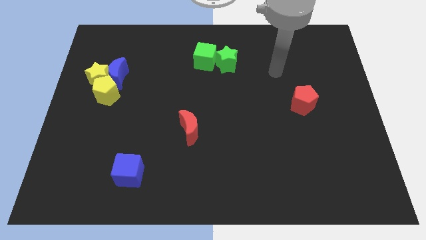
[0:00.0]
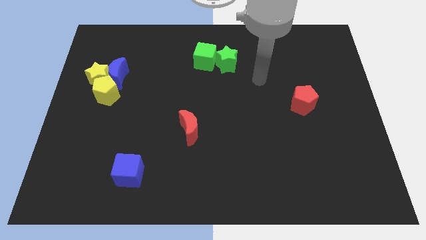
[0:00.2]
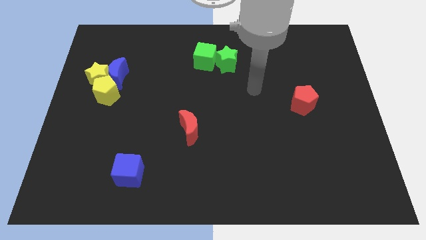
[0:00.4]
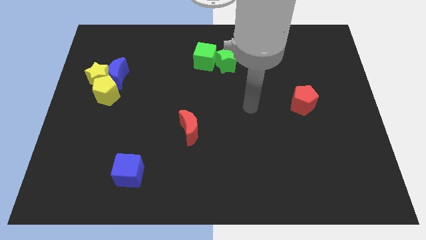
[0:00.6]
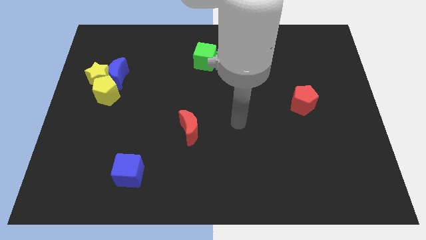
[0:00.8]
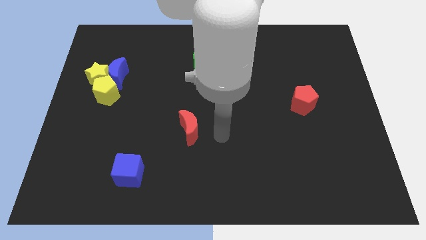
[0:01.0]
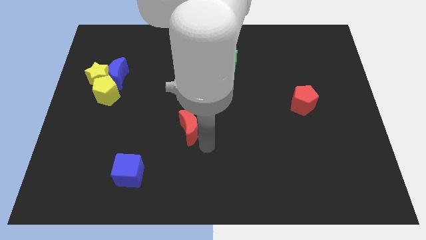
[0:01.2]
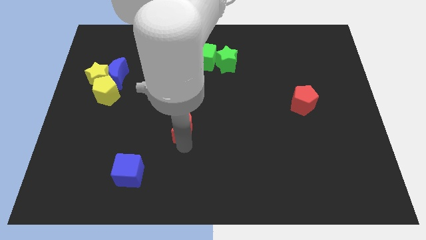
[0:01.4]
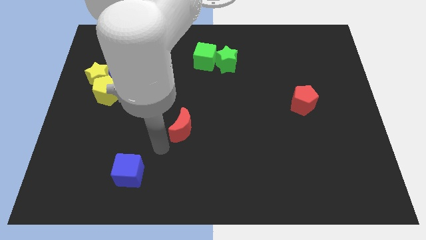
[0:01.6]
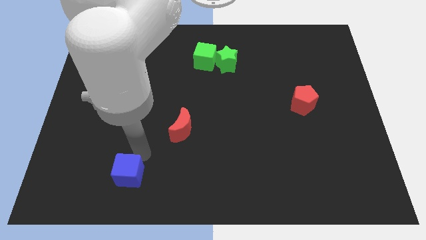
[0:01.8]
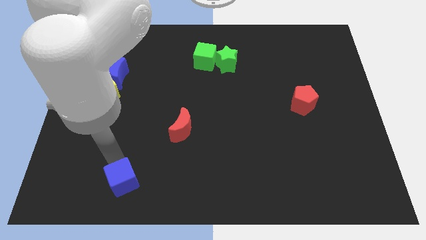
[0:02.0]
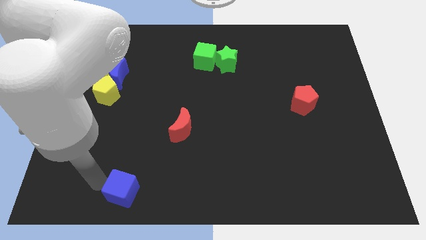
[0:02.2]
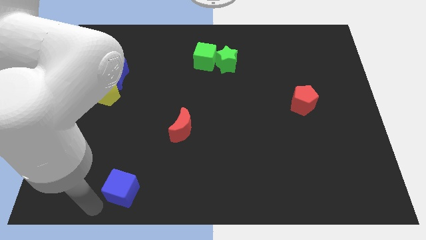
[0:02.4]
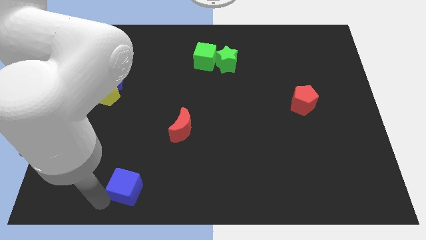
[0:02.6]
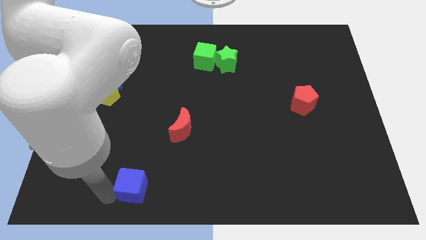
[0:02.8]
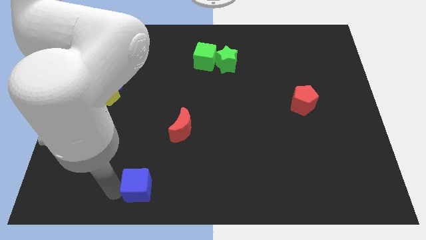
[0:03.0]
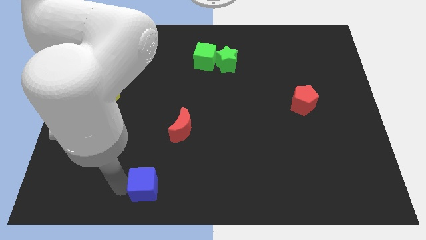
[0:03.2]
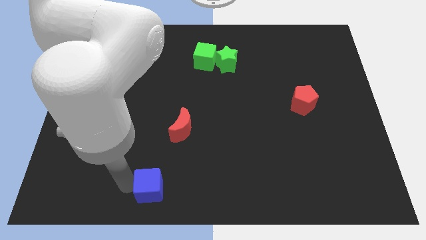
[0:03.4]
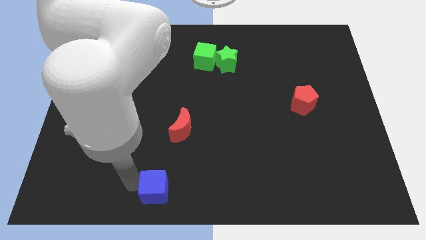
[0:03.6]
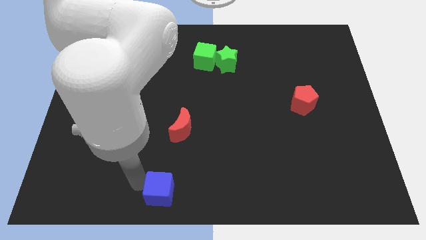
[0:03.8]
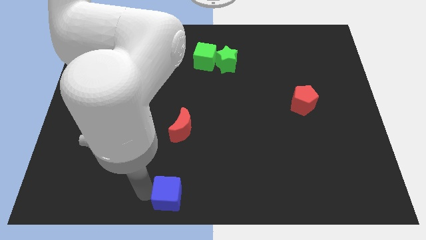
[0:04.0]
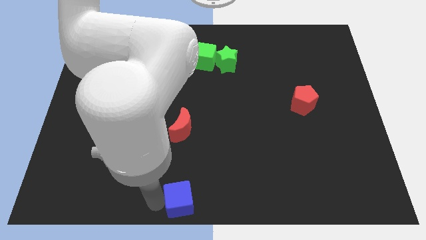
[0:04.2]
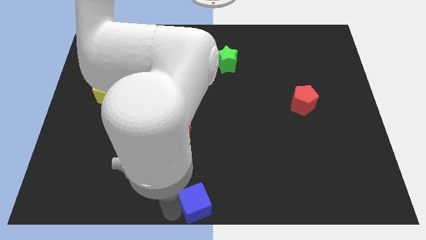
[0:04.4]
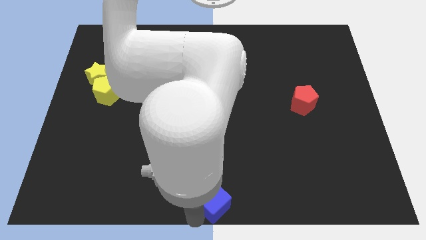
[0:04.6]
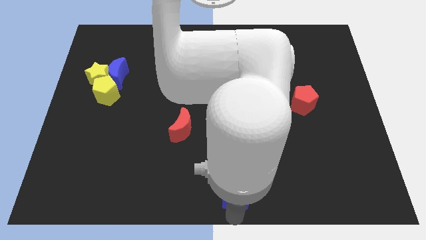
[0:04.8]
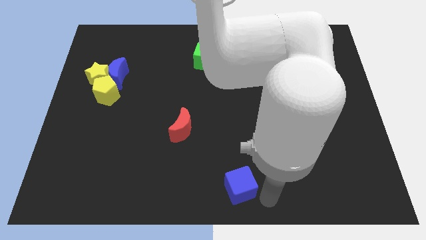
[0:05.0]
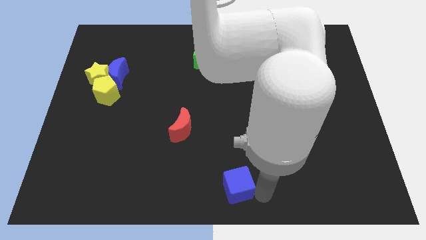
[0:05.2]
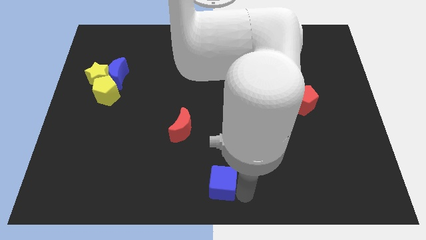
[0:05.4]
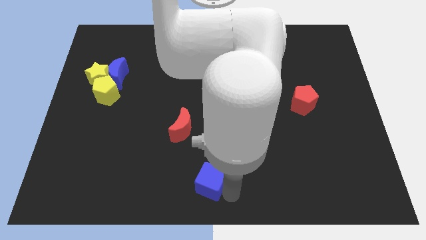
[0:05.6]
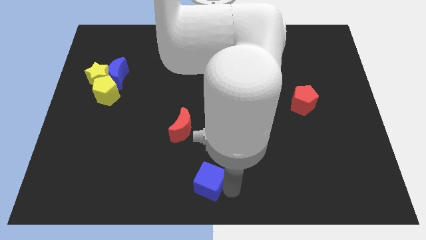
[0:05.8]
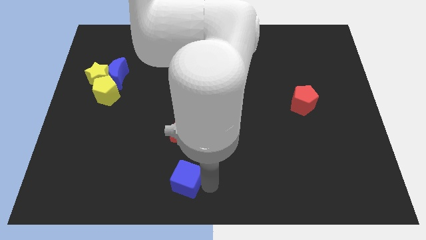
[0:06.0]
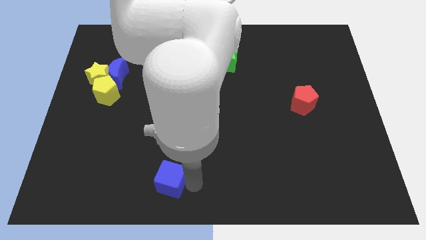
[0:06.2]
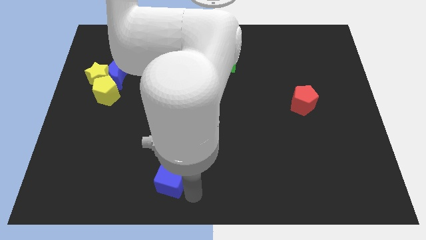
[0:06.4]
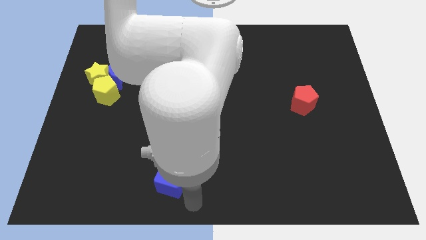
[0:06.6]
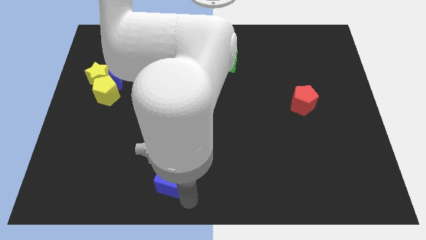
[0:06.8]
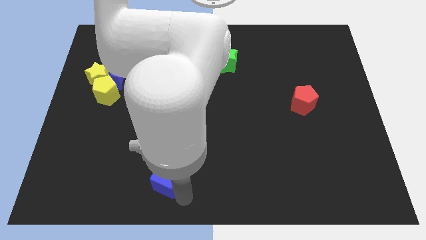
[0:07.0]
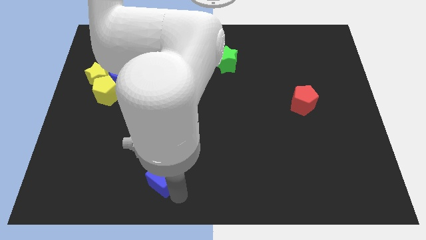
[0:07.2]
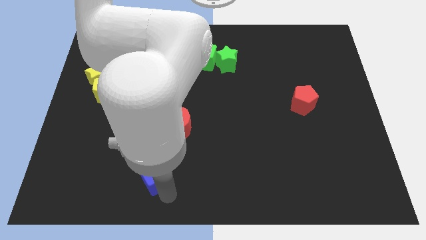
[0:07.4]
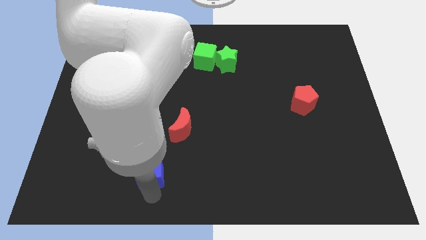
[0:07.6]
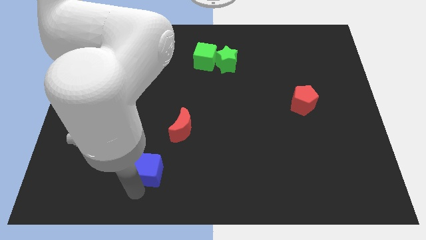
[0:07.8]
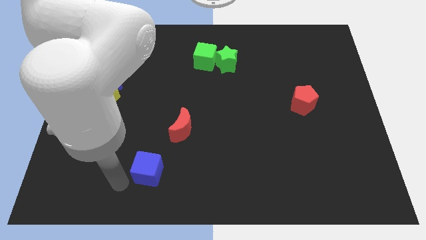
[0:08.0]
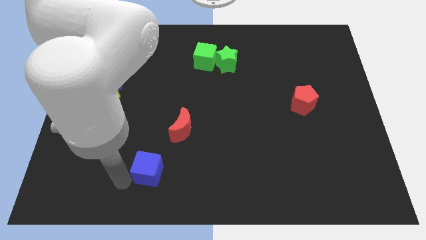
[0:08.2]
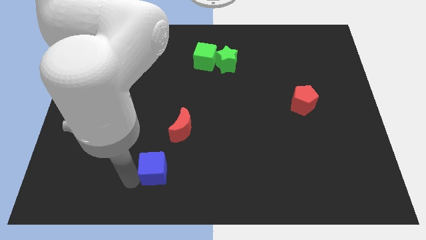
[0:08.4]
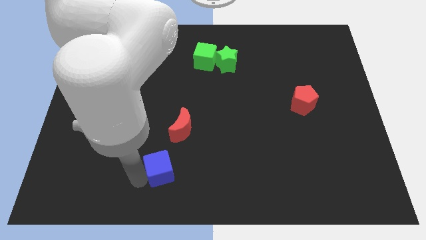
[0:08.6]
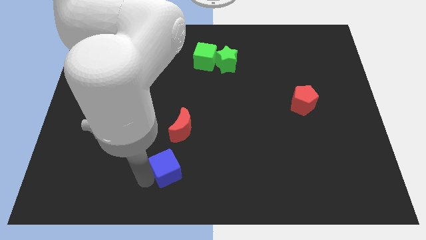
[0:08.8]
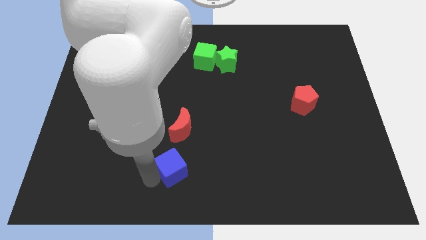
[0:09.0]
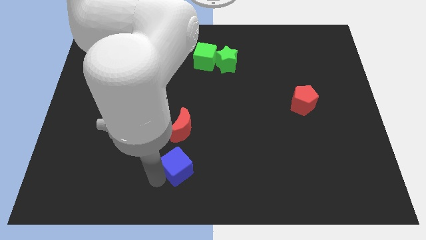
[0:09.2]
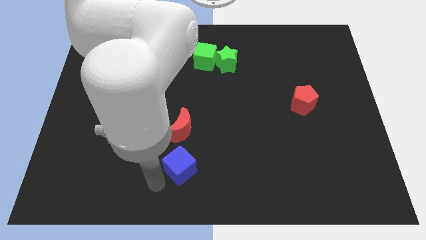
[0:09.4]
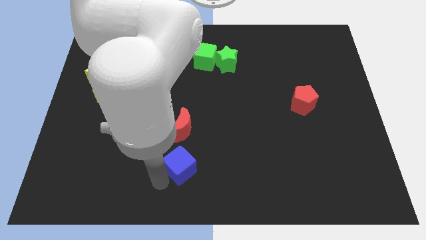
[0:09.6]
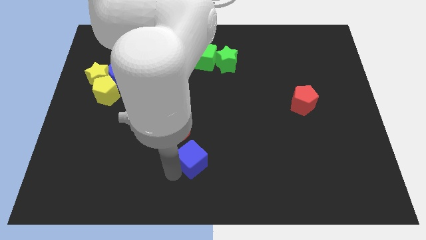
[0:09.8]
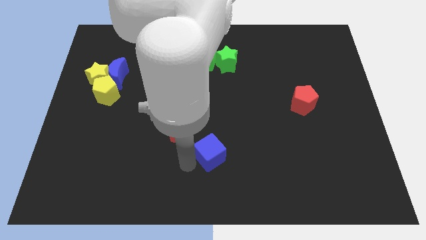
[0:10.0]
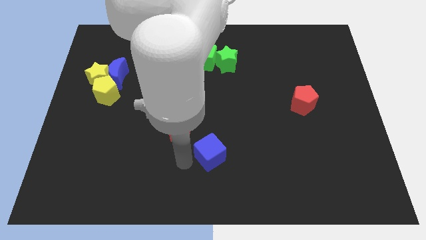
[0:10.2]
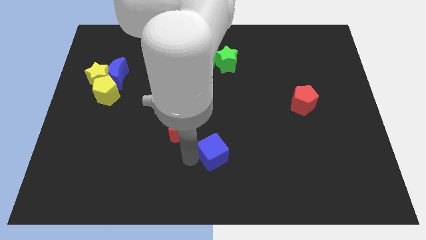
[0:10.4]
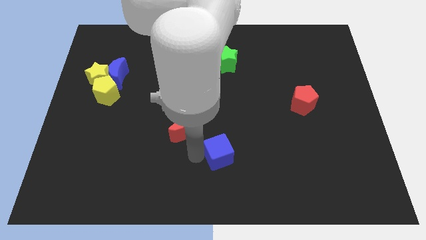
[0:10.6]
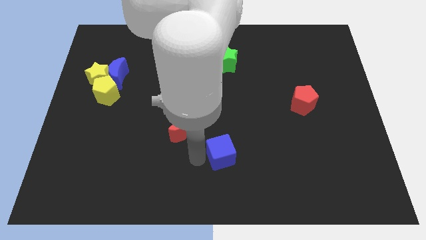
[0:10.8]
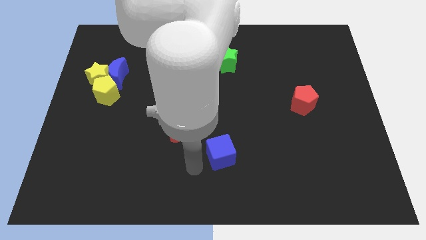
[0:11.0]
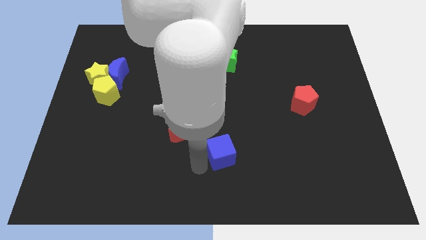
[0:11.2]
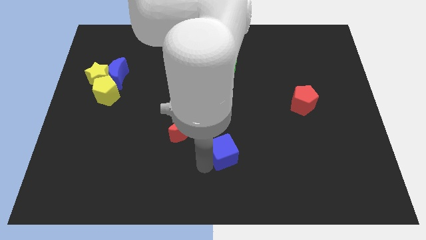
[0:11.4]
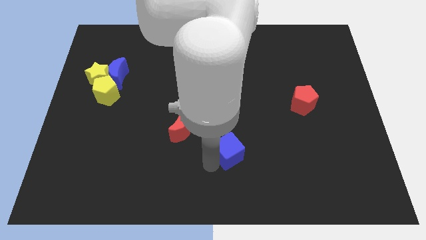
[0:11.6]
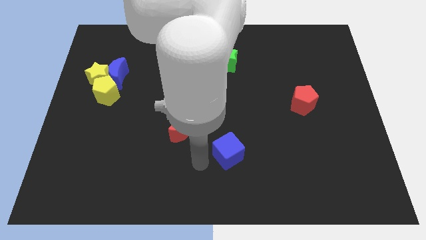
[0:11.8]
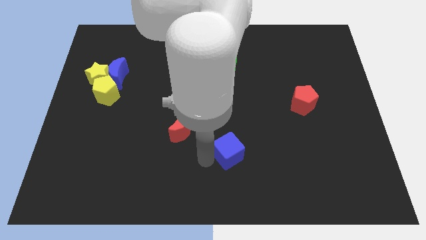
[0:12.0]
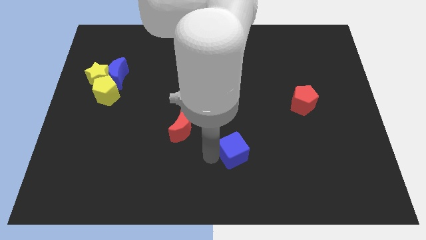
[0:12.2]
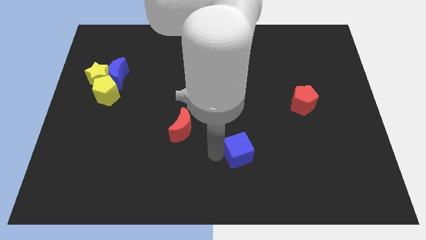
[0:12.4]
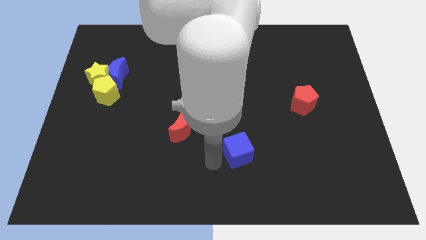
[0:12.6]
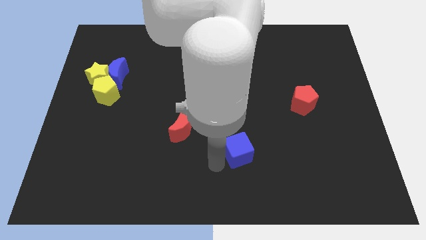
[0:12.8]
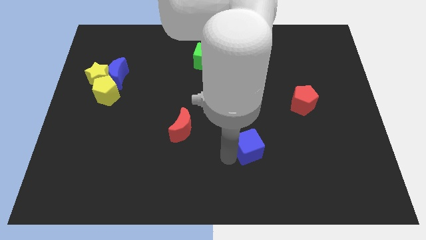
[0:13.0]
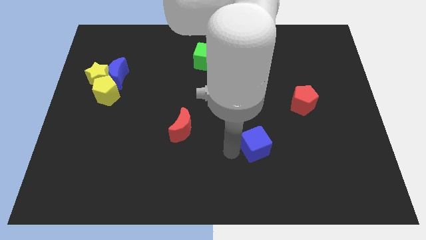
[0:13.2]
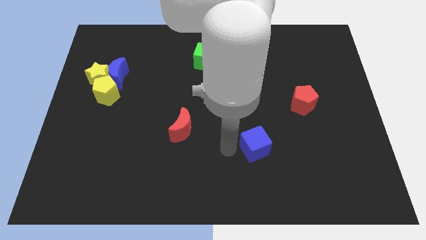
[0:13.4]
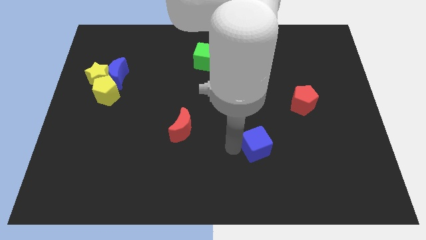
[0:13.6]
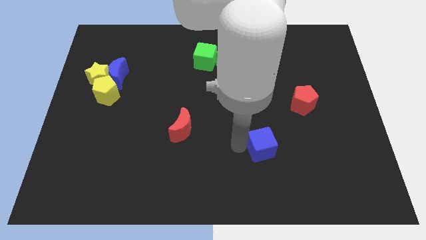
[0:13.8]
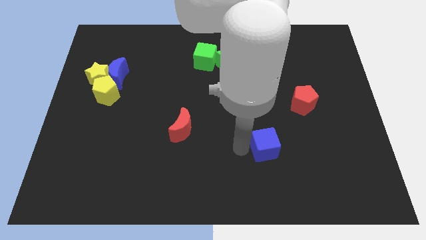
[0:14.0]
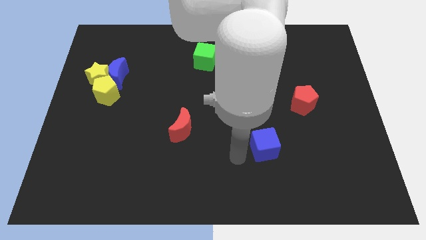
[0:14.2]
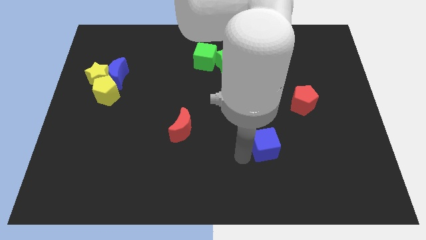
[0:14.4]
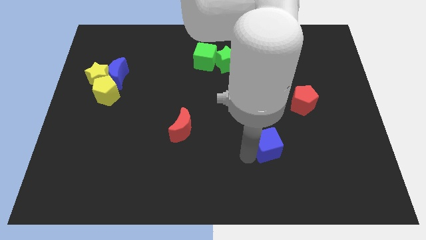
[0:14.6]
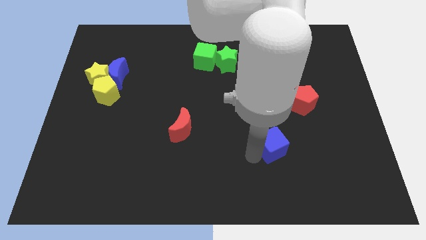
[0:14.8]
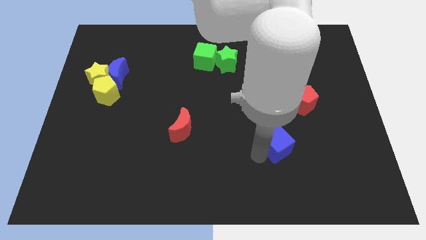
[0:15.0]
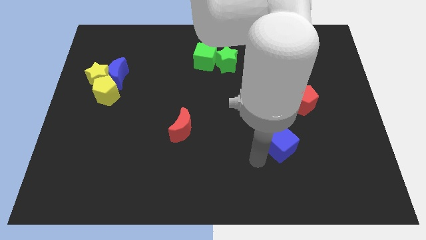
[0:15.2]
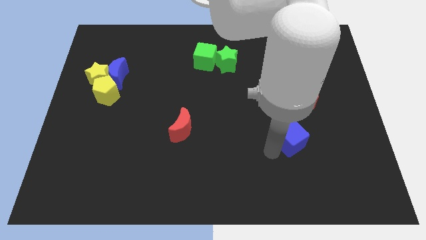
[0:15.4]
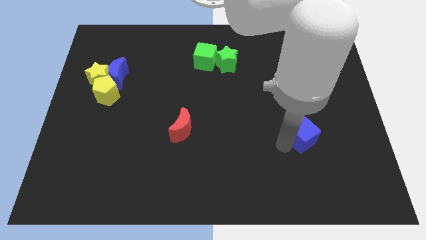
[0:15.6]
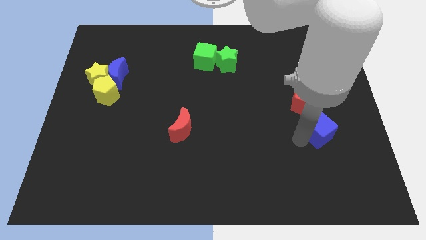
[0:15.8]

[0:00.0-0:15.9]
move the blue cube to the bottom right side of the red pentagon
